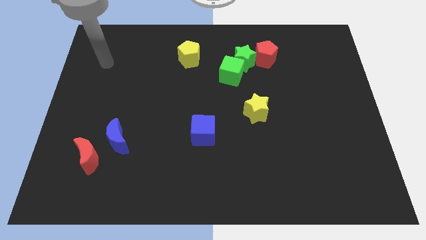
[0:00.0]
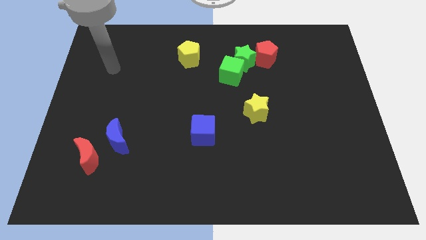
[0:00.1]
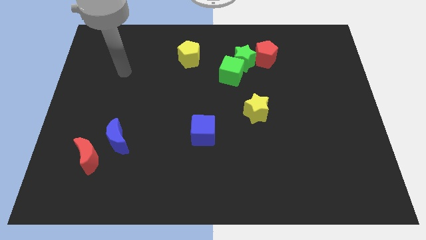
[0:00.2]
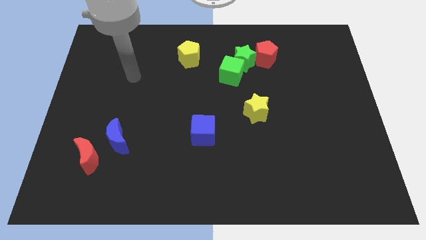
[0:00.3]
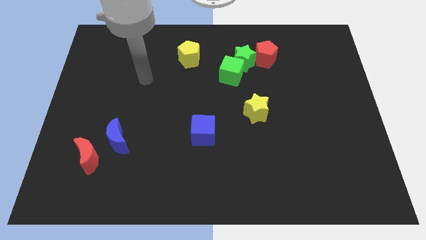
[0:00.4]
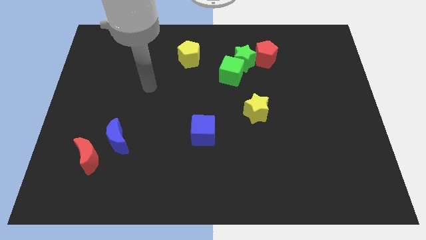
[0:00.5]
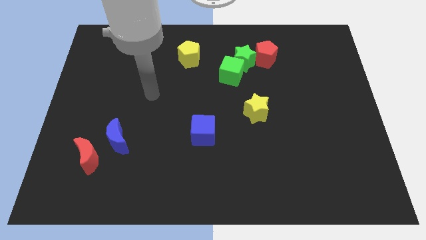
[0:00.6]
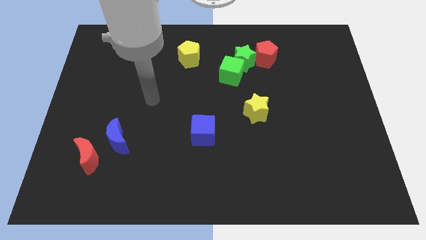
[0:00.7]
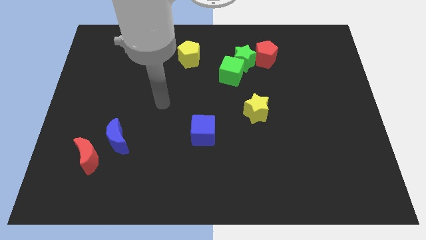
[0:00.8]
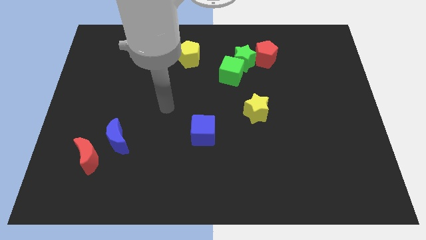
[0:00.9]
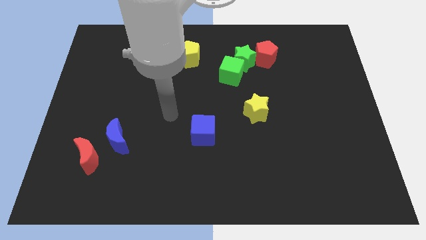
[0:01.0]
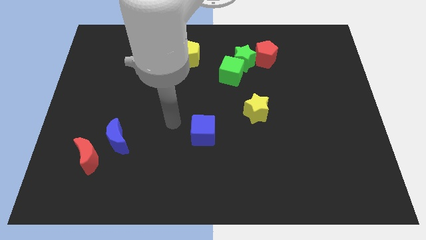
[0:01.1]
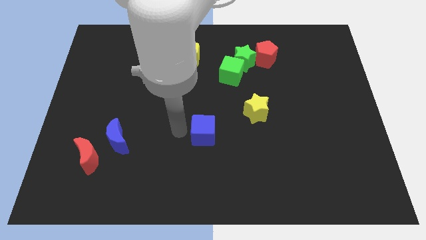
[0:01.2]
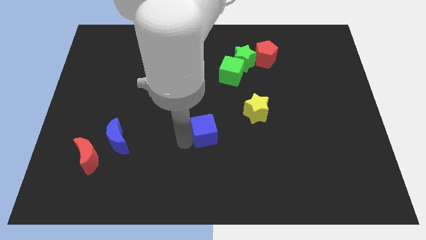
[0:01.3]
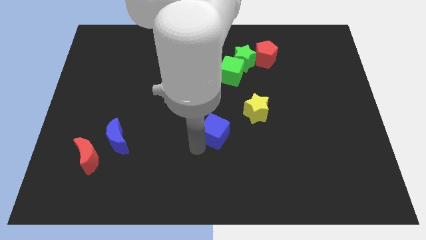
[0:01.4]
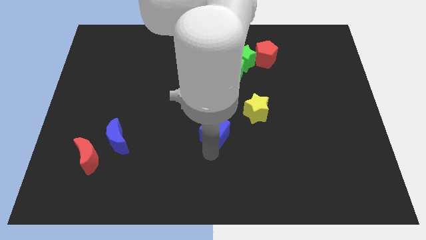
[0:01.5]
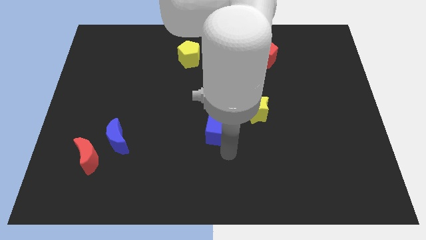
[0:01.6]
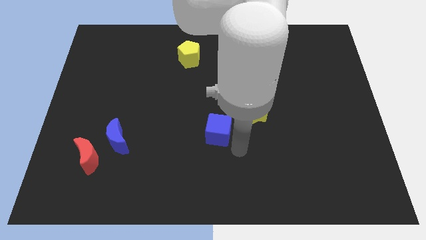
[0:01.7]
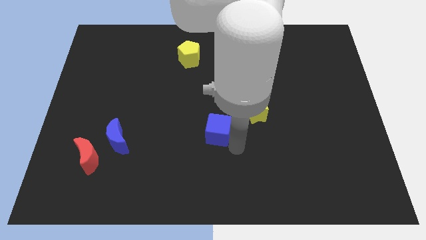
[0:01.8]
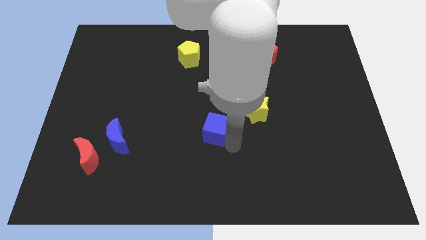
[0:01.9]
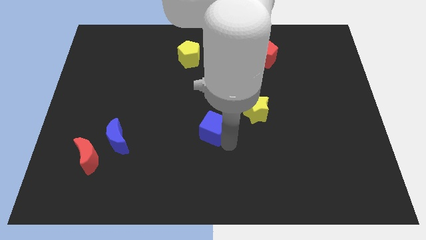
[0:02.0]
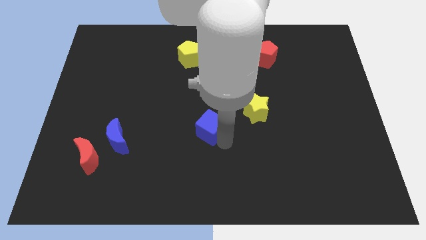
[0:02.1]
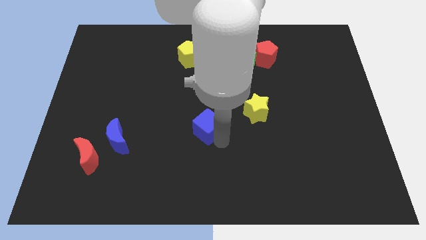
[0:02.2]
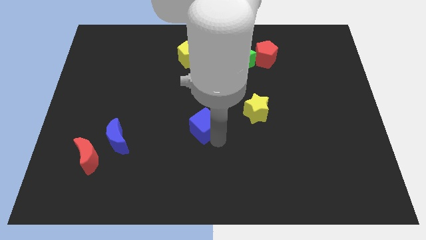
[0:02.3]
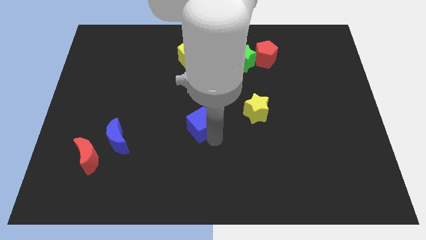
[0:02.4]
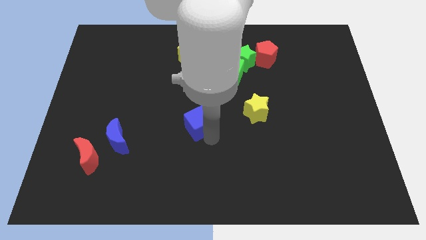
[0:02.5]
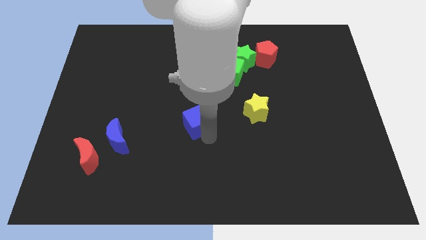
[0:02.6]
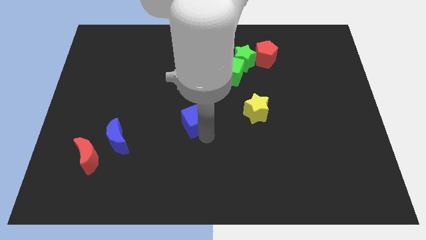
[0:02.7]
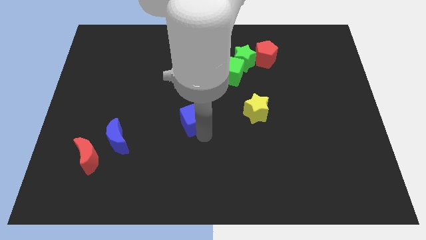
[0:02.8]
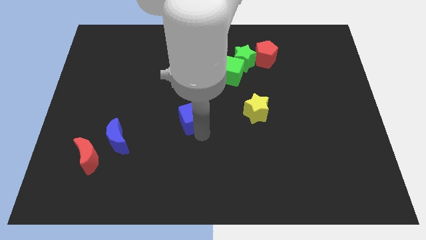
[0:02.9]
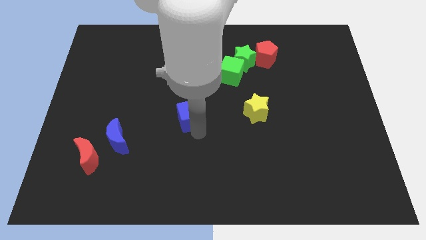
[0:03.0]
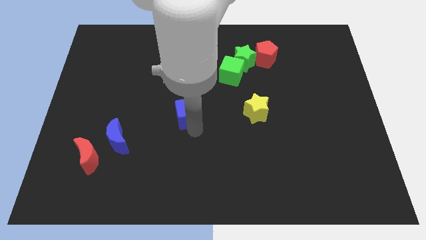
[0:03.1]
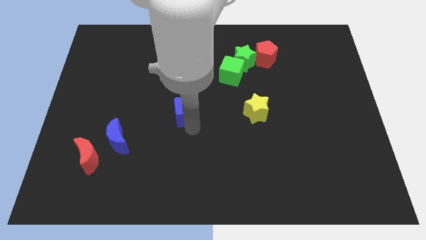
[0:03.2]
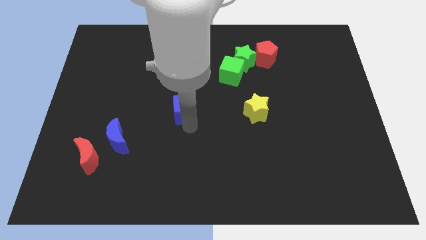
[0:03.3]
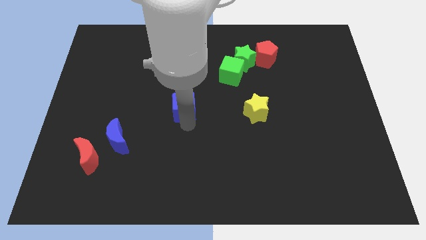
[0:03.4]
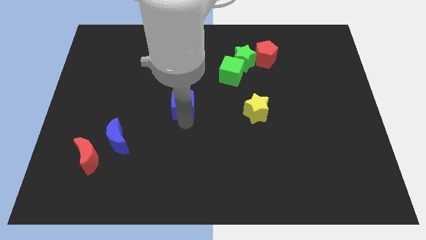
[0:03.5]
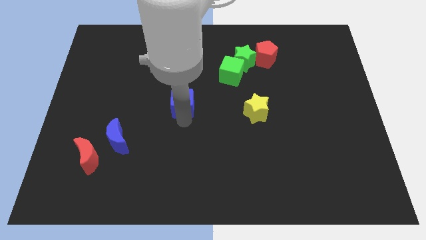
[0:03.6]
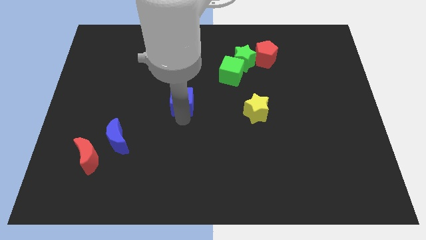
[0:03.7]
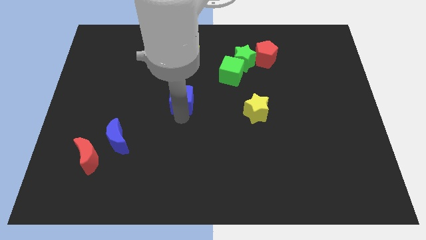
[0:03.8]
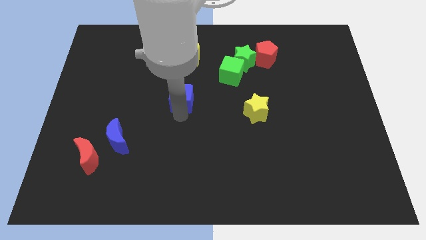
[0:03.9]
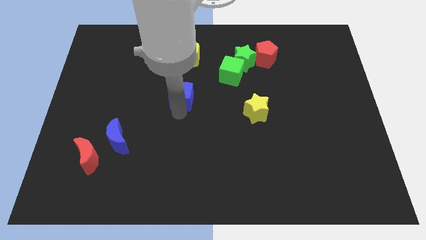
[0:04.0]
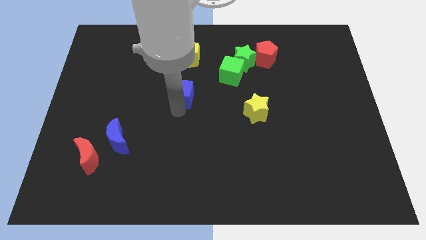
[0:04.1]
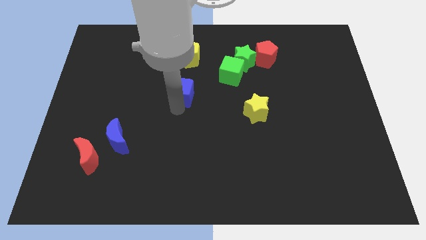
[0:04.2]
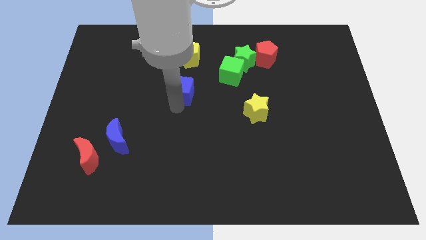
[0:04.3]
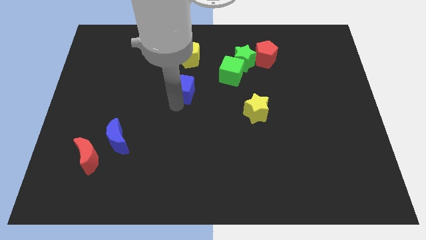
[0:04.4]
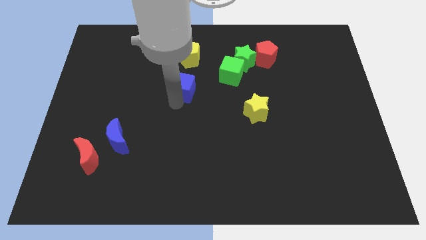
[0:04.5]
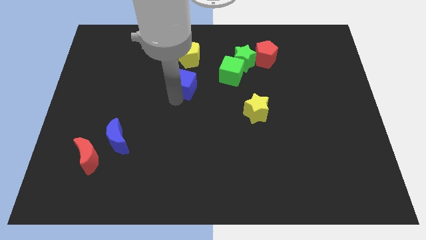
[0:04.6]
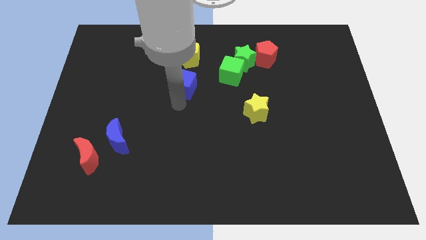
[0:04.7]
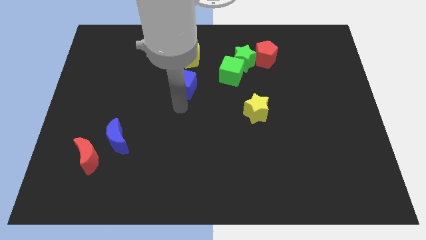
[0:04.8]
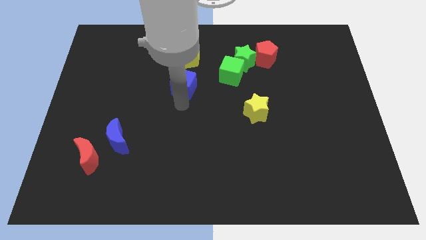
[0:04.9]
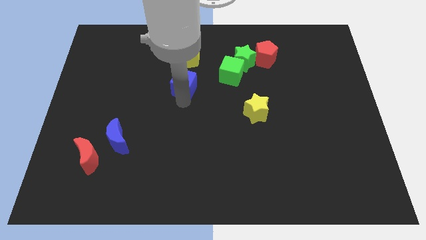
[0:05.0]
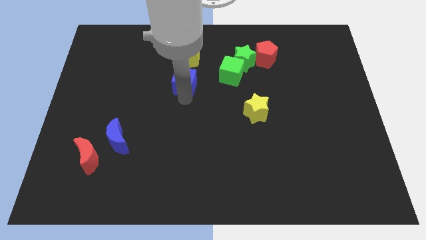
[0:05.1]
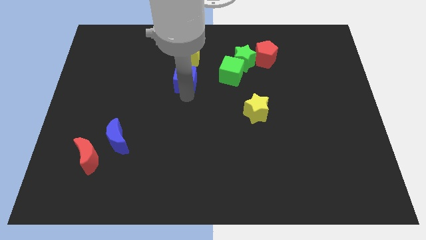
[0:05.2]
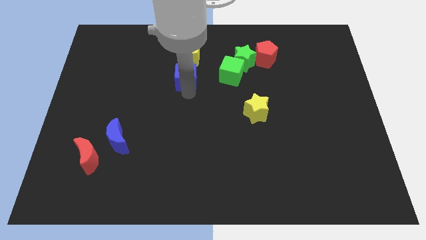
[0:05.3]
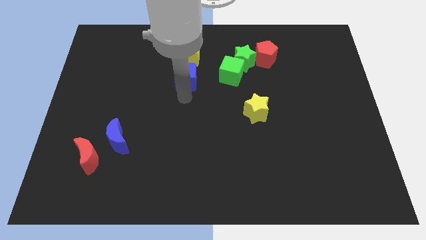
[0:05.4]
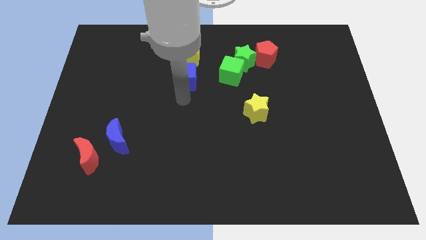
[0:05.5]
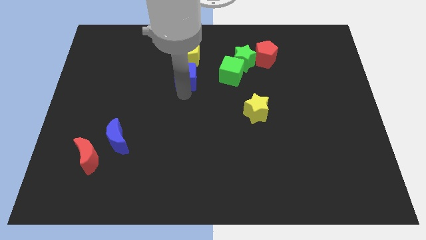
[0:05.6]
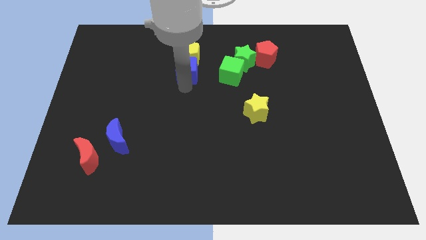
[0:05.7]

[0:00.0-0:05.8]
push the blue cube to the yellow pentagon

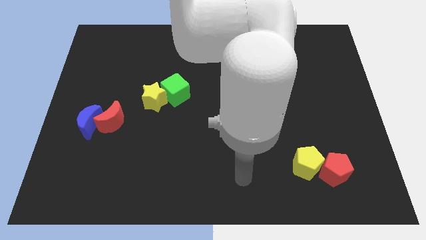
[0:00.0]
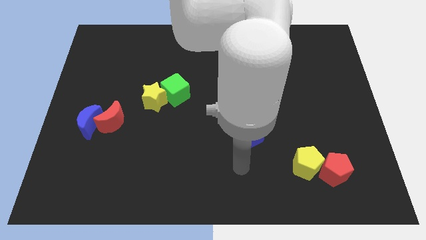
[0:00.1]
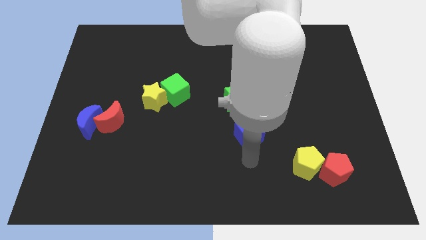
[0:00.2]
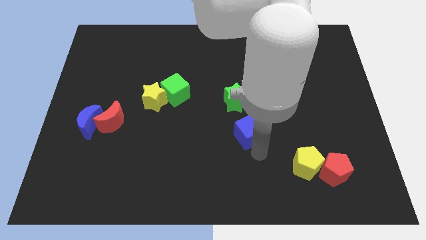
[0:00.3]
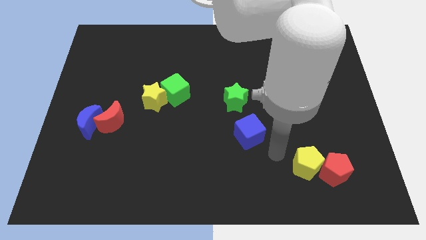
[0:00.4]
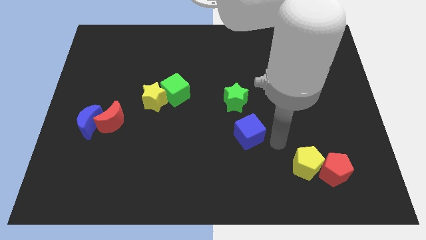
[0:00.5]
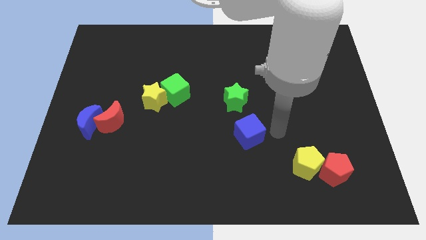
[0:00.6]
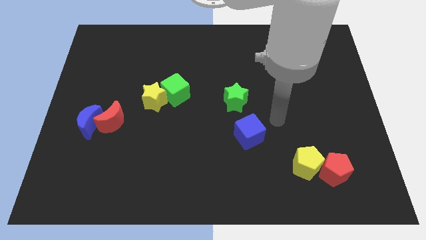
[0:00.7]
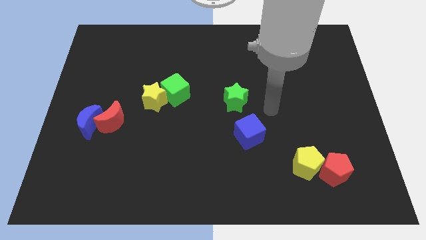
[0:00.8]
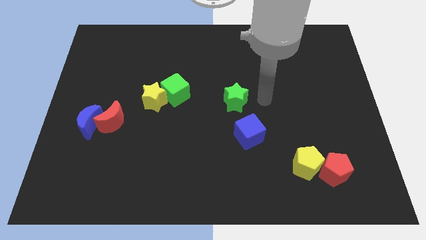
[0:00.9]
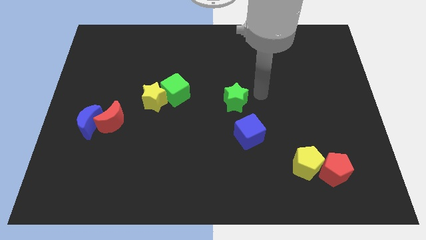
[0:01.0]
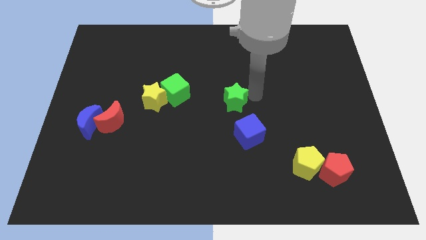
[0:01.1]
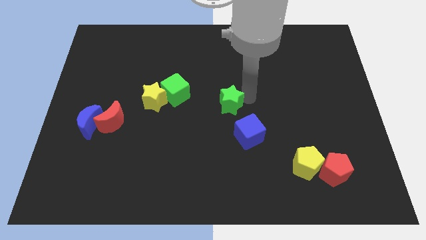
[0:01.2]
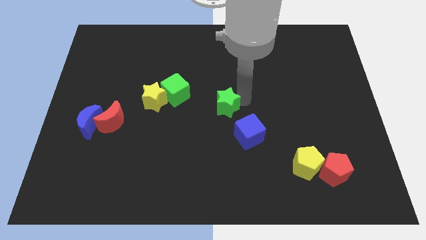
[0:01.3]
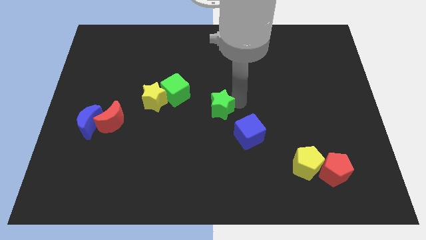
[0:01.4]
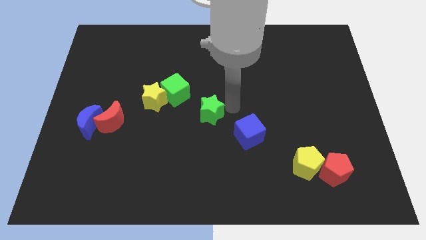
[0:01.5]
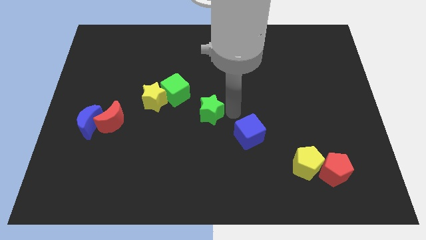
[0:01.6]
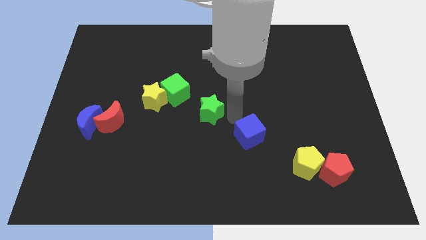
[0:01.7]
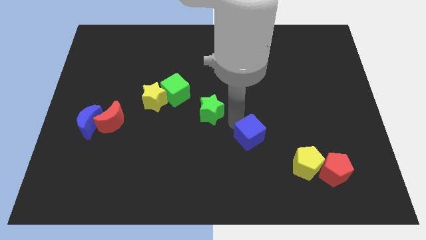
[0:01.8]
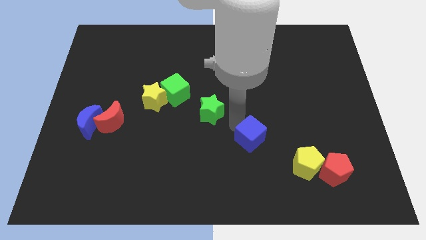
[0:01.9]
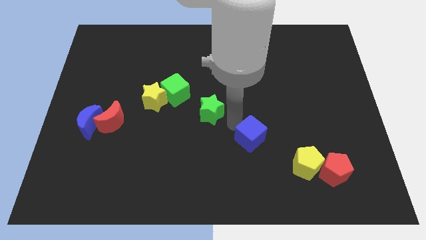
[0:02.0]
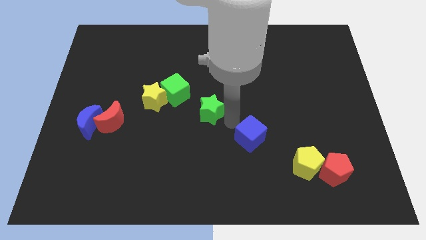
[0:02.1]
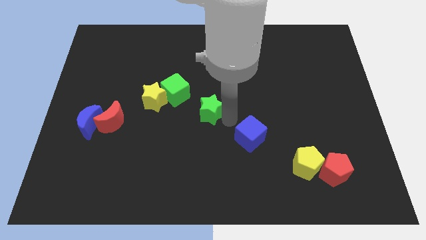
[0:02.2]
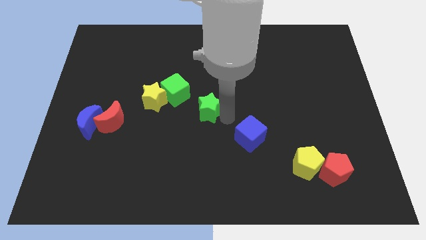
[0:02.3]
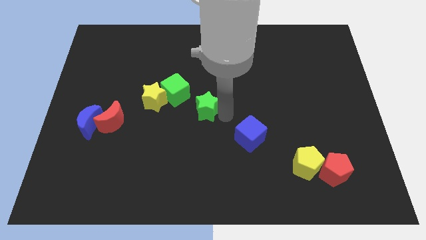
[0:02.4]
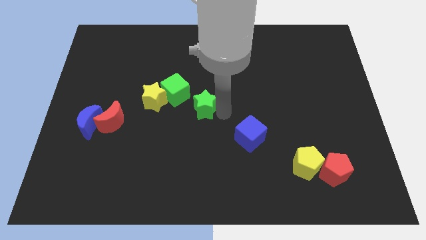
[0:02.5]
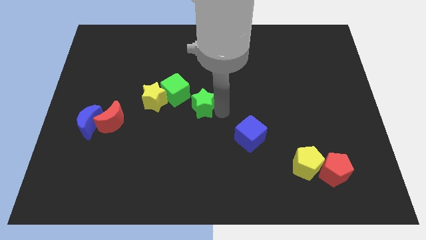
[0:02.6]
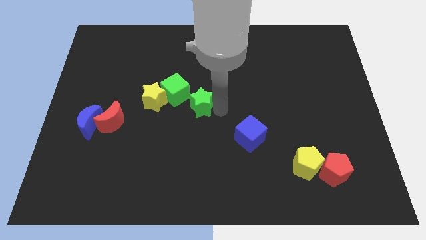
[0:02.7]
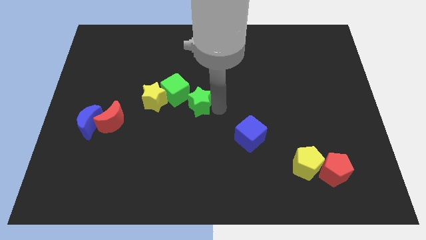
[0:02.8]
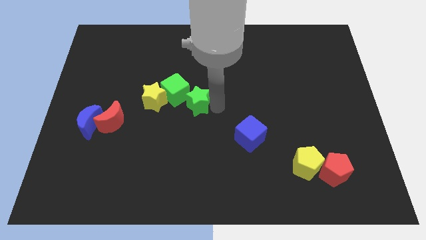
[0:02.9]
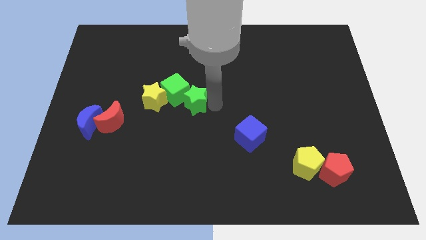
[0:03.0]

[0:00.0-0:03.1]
push the green star towards the green cube
